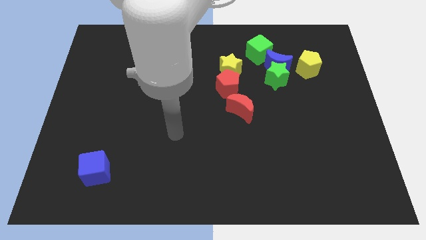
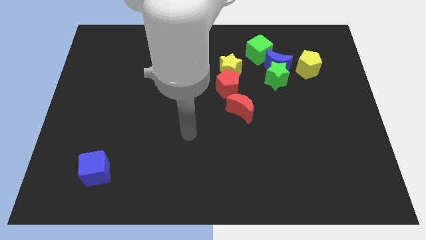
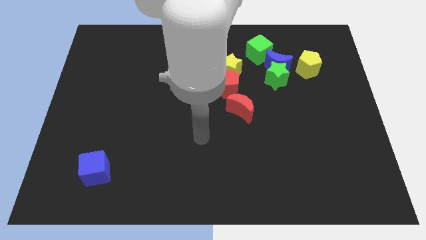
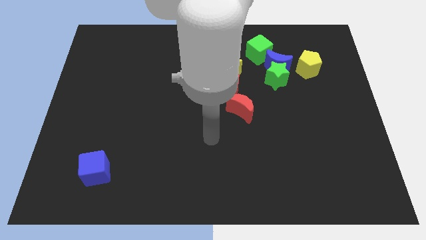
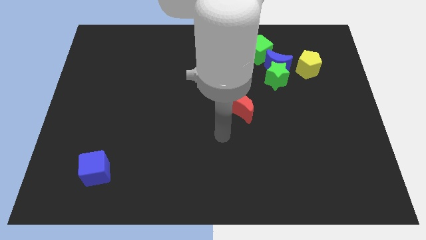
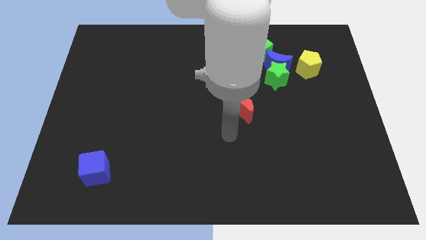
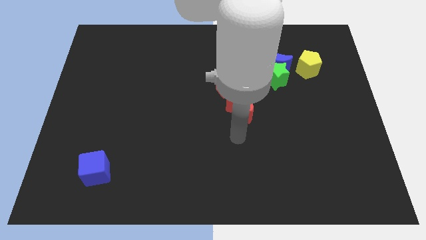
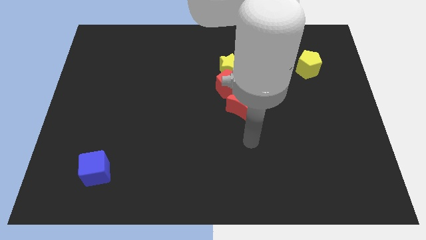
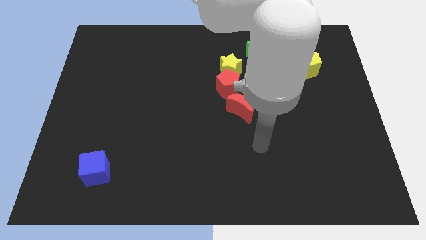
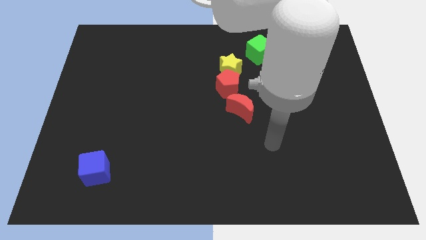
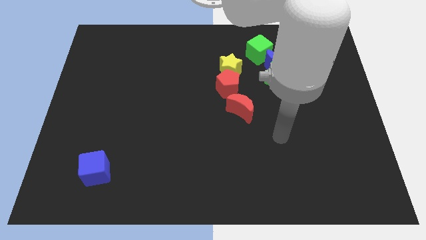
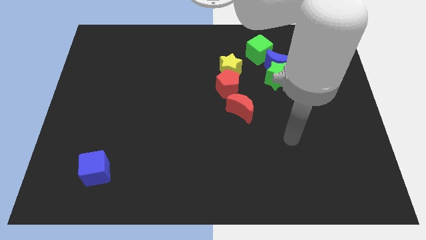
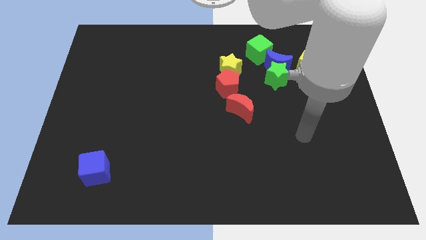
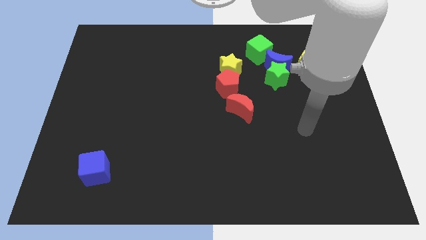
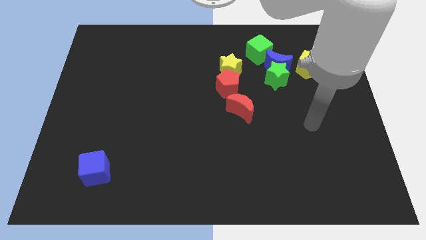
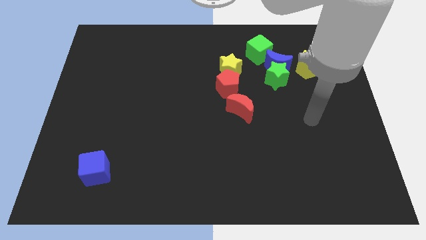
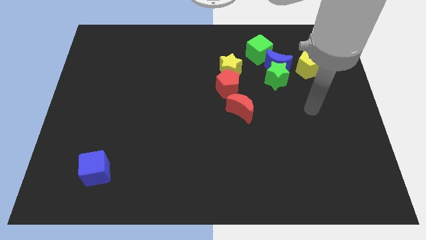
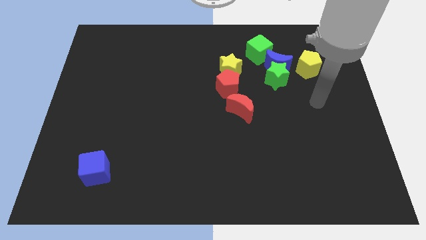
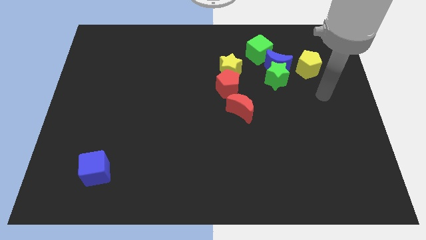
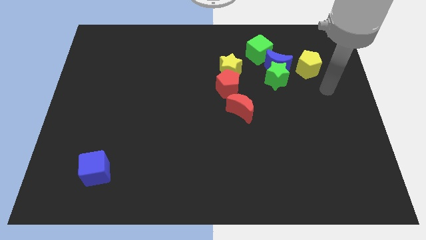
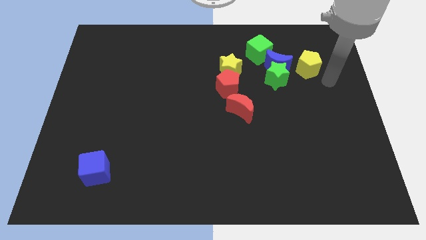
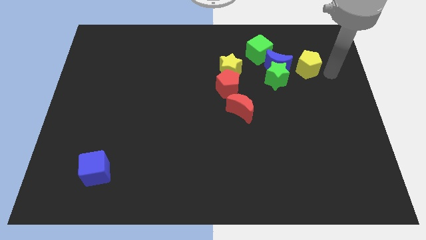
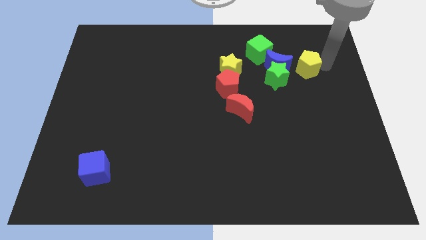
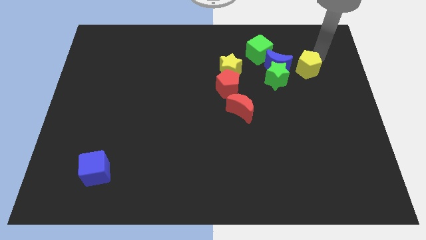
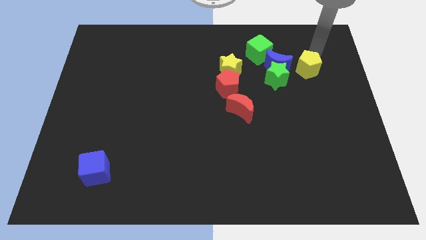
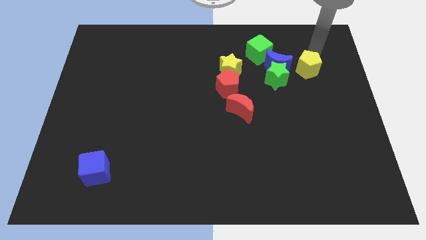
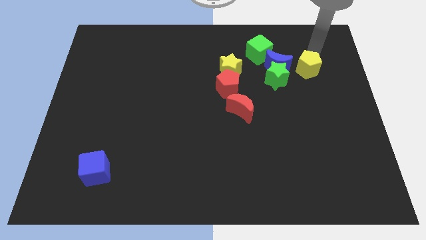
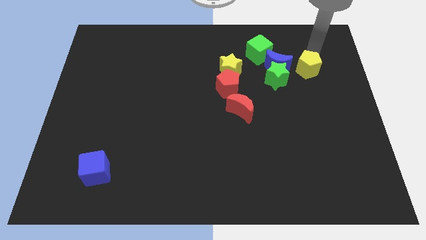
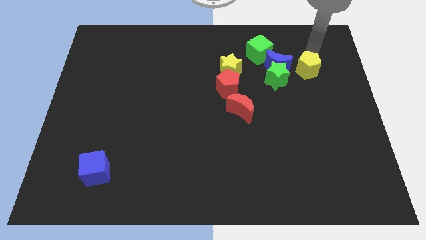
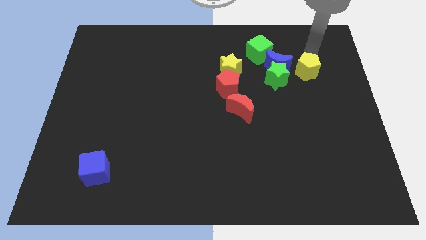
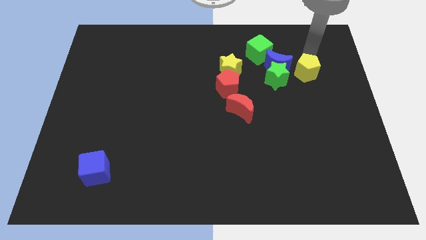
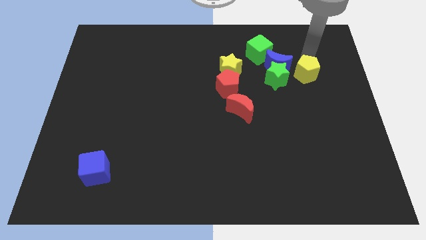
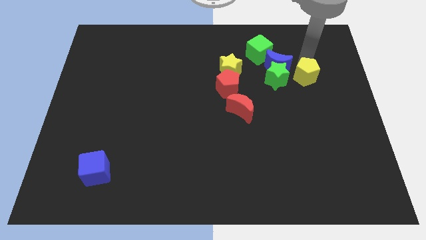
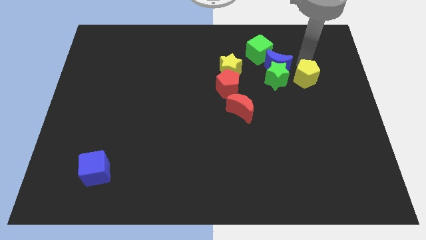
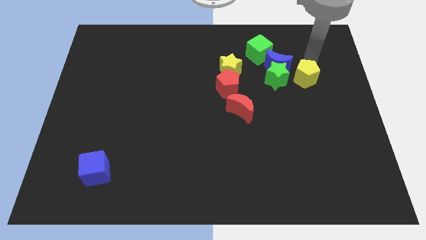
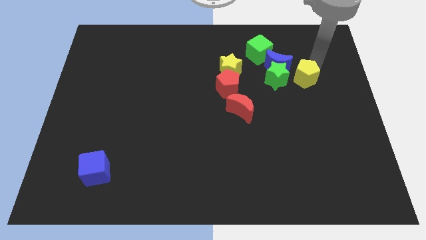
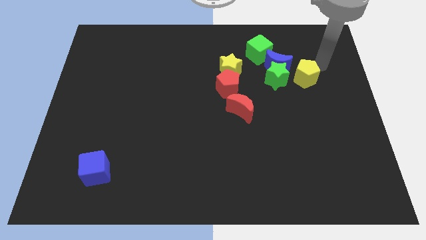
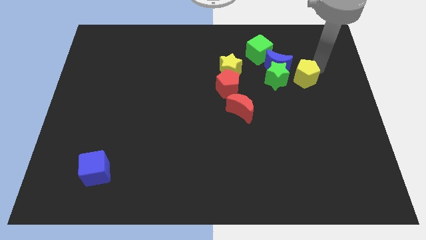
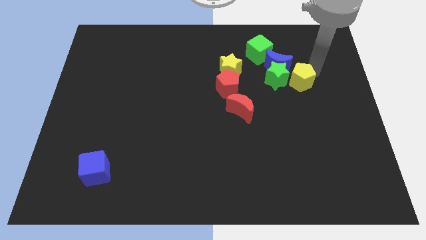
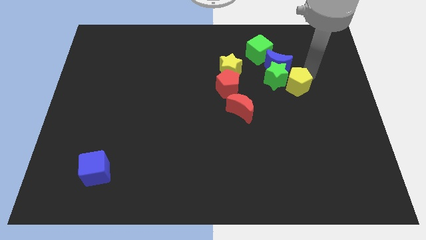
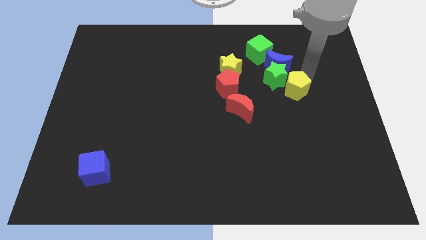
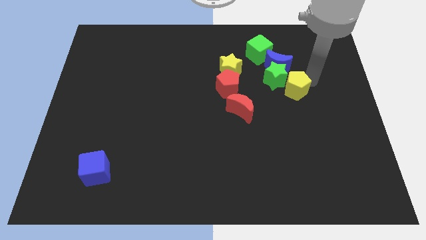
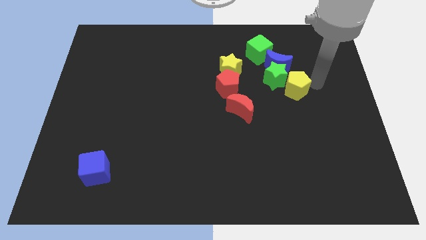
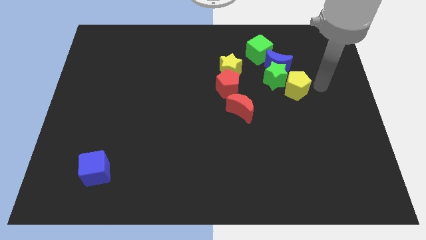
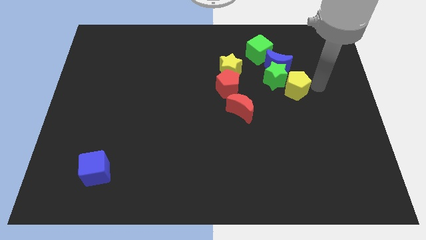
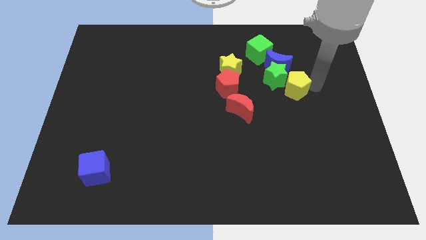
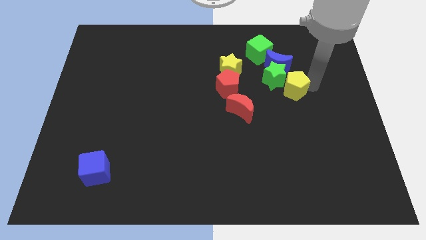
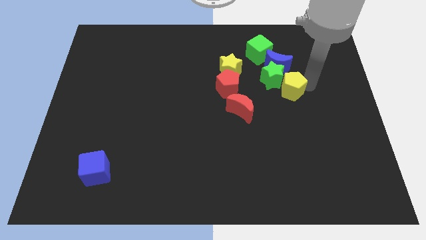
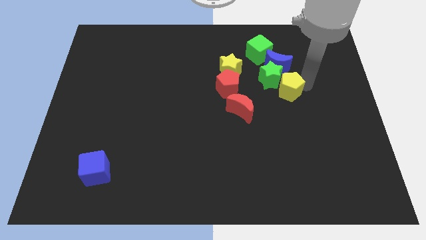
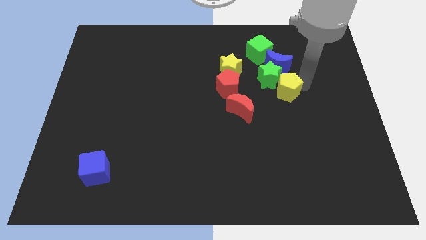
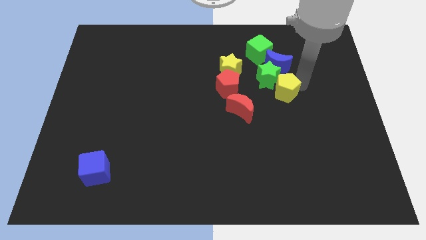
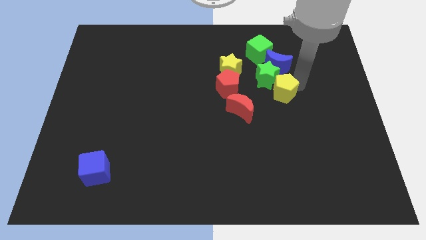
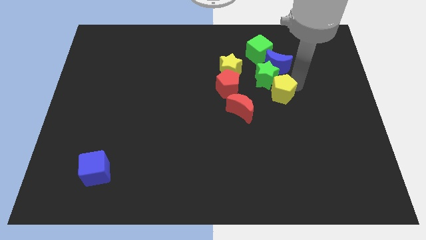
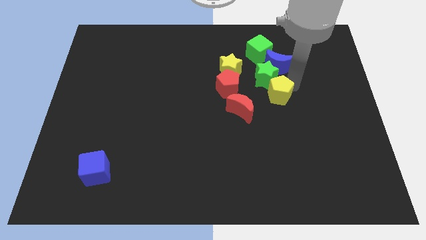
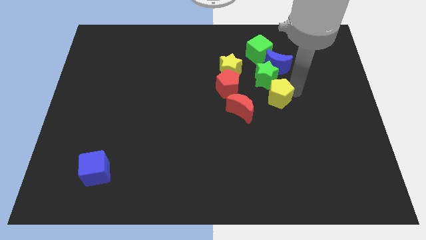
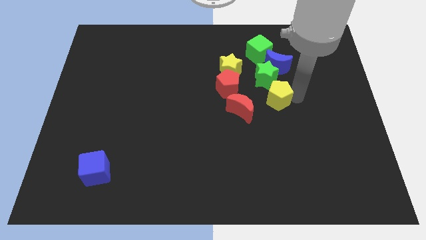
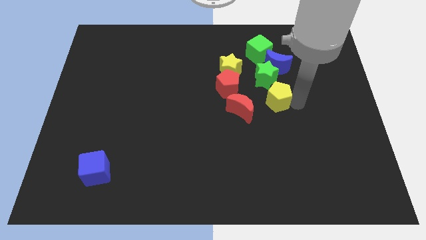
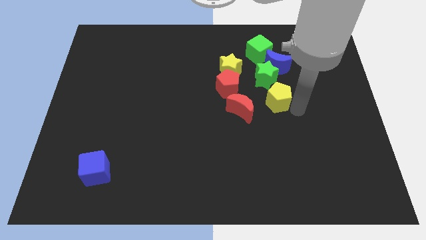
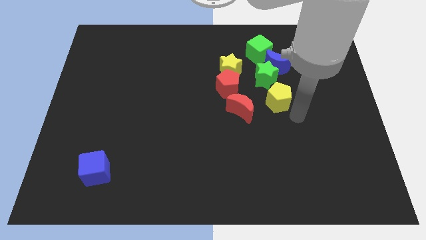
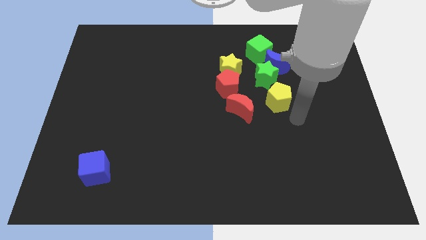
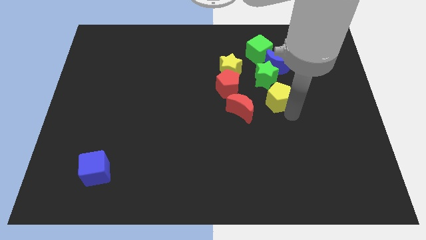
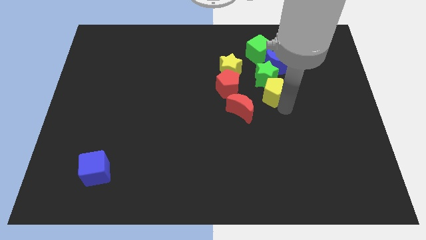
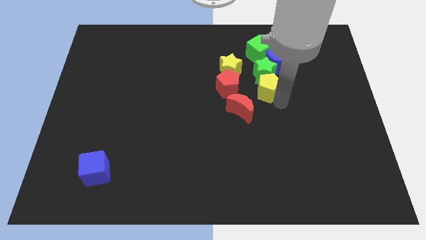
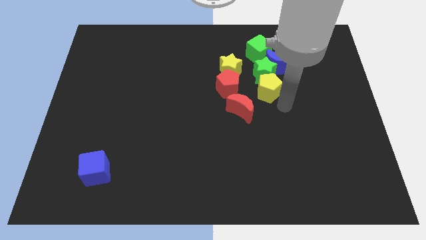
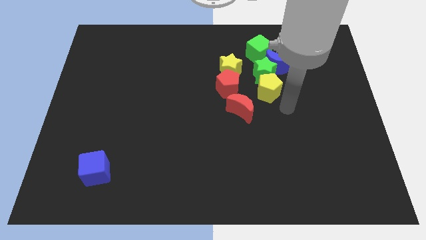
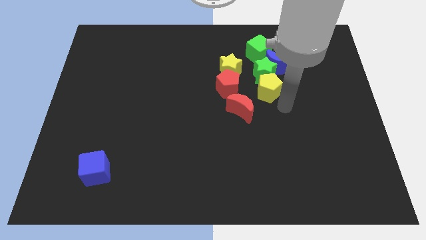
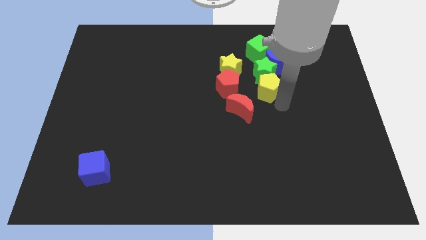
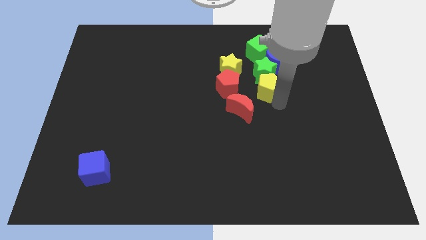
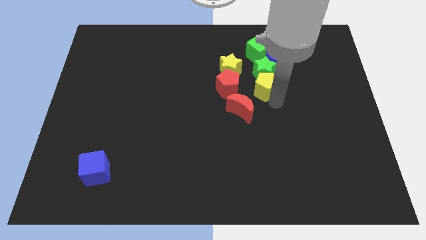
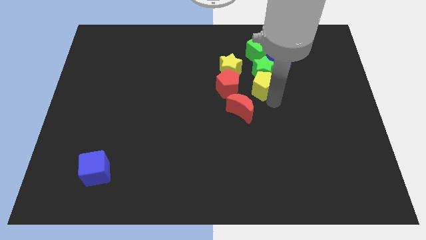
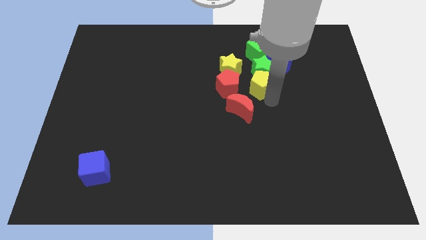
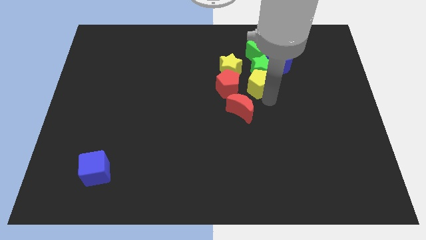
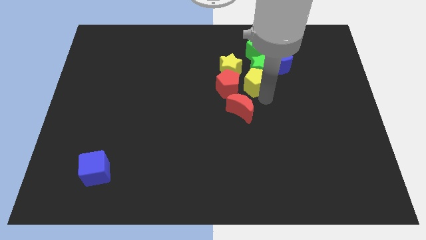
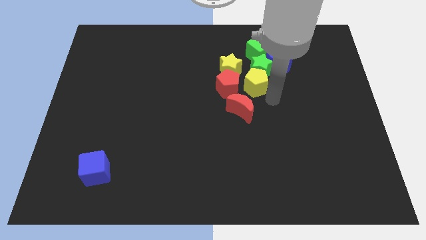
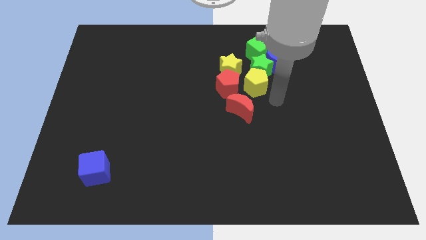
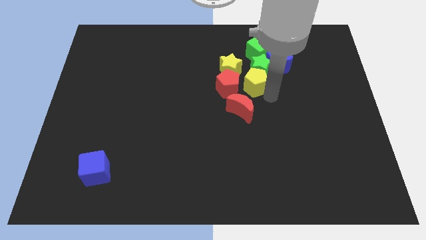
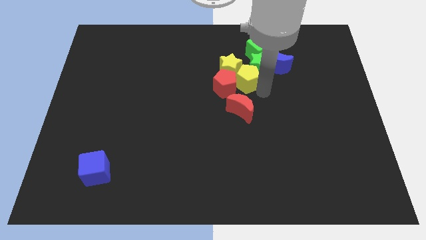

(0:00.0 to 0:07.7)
move the yellow pentagon close to the yellow star
